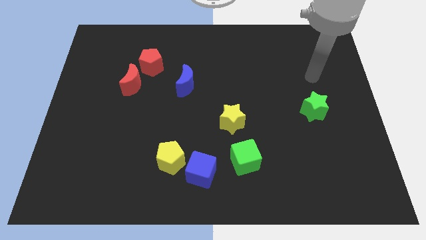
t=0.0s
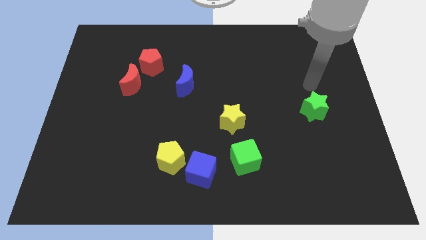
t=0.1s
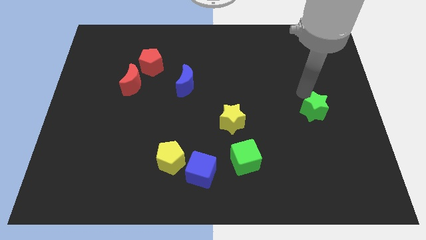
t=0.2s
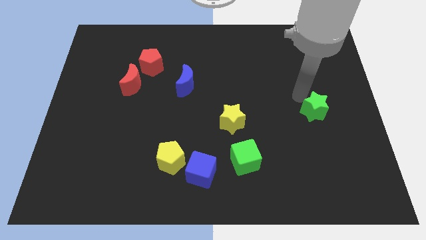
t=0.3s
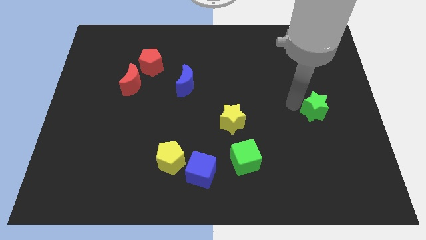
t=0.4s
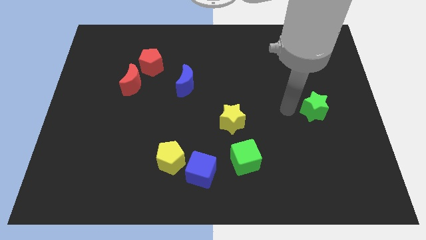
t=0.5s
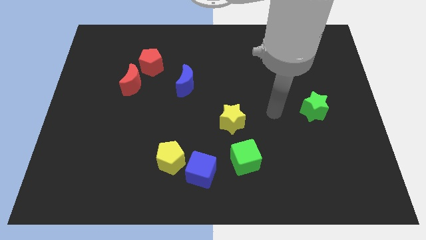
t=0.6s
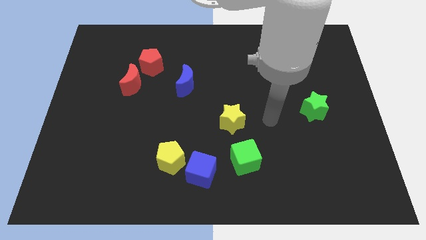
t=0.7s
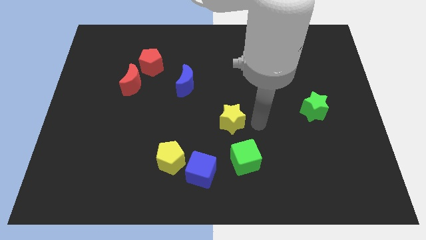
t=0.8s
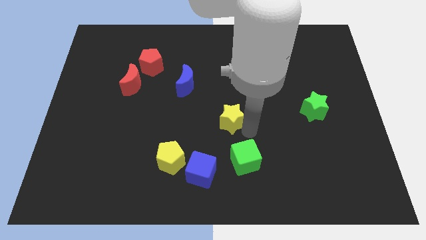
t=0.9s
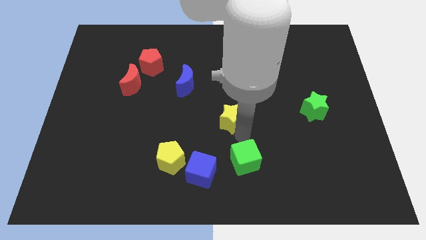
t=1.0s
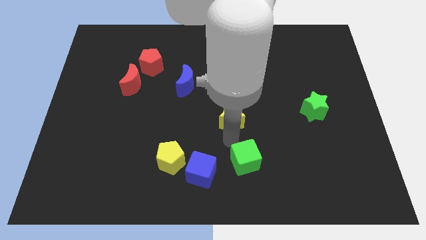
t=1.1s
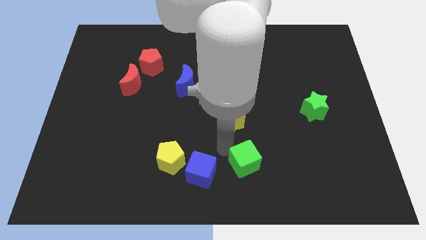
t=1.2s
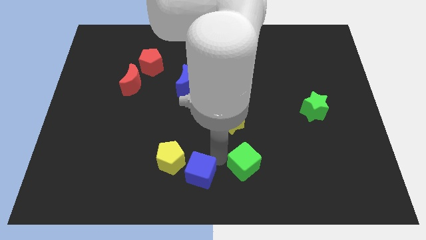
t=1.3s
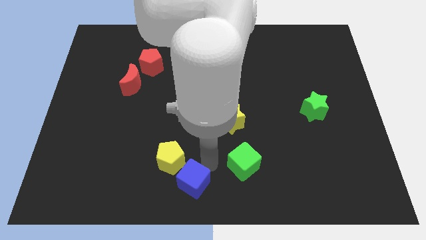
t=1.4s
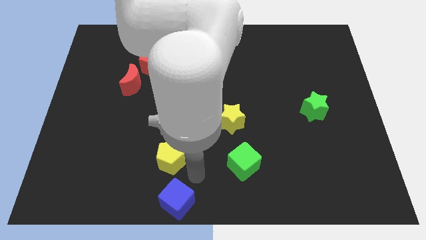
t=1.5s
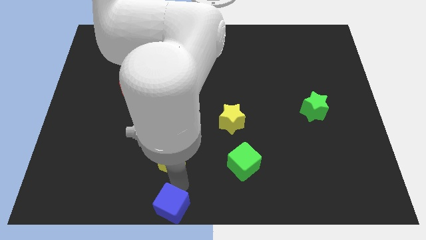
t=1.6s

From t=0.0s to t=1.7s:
separate the yellow pentagon from the blue cube

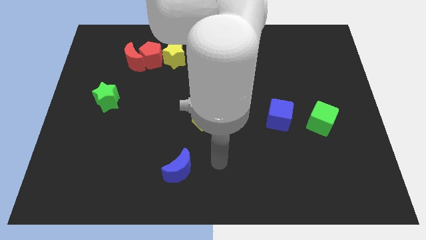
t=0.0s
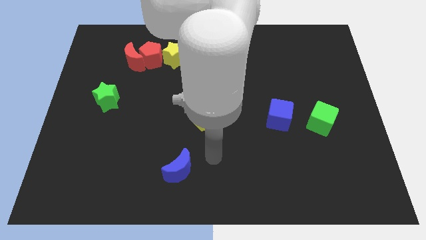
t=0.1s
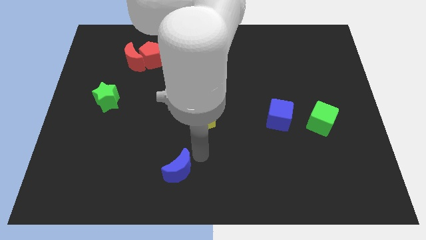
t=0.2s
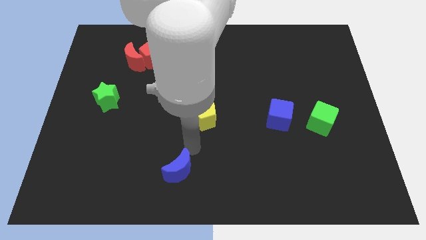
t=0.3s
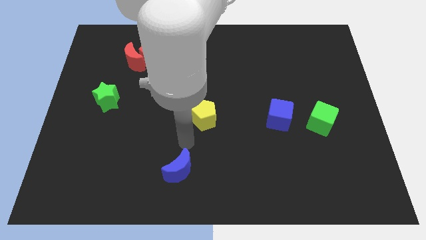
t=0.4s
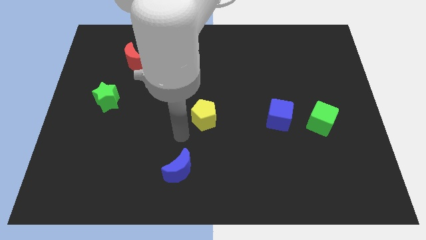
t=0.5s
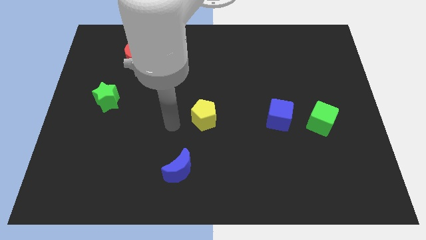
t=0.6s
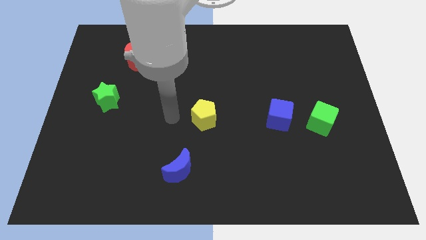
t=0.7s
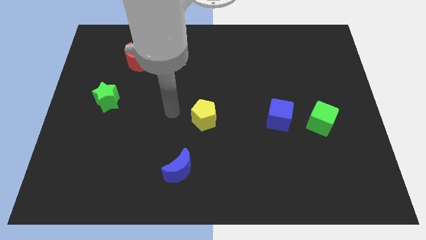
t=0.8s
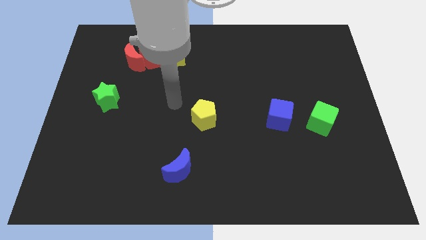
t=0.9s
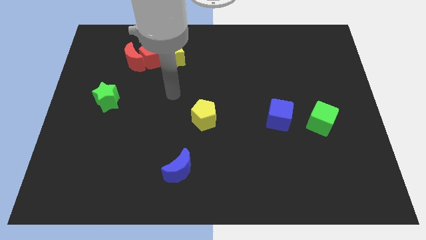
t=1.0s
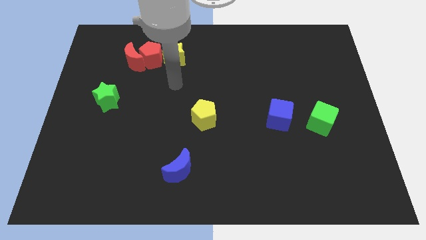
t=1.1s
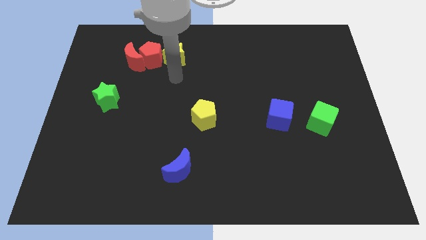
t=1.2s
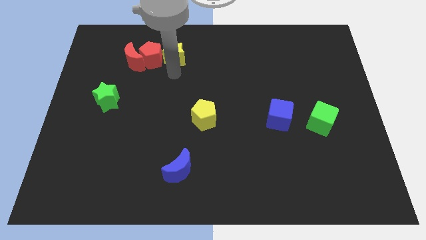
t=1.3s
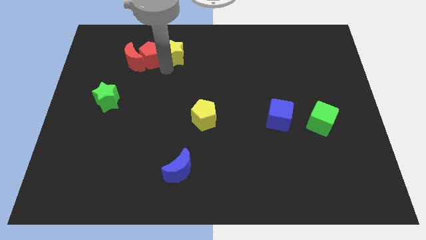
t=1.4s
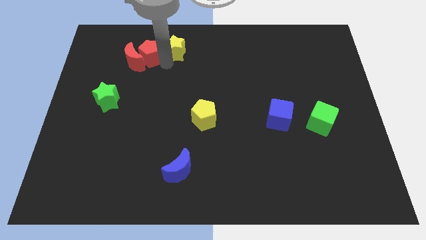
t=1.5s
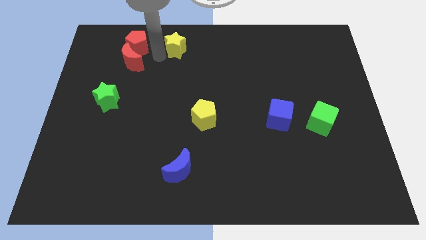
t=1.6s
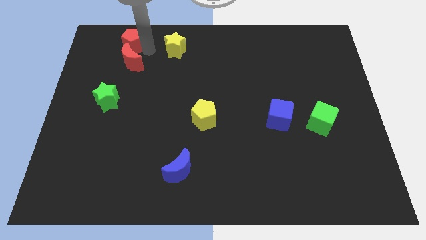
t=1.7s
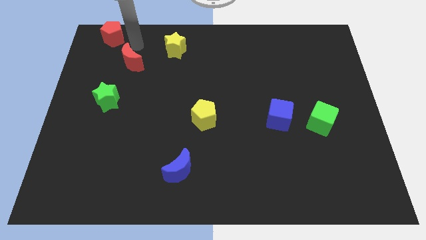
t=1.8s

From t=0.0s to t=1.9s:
move the red moon away from the red pentagon

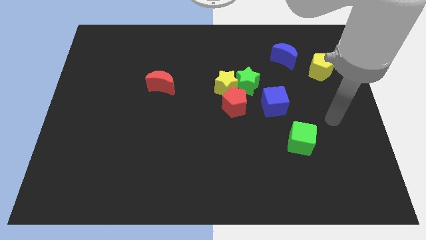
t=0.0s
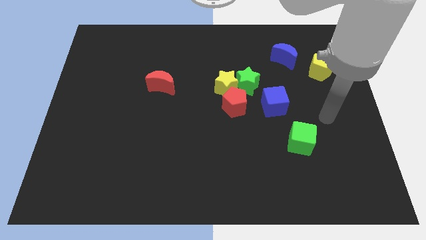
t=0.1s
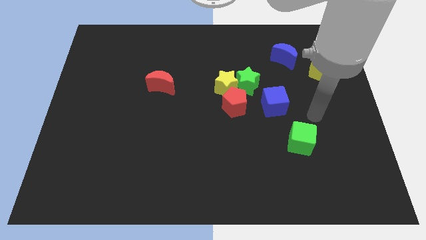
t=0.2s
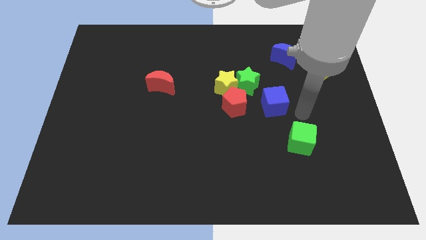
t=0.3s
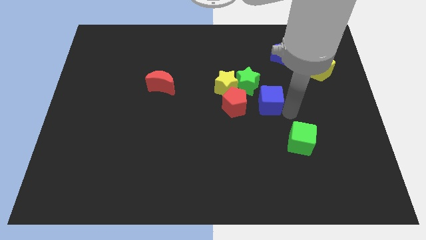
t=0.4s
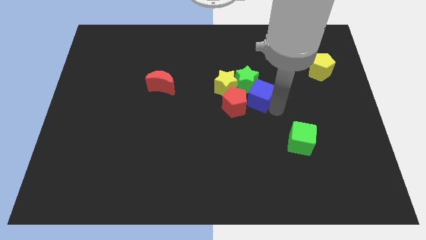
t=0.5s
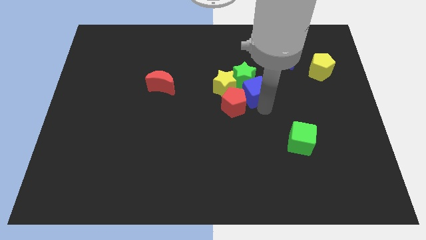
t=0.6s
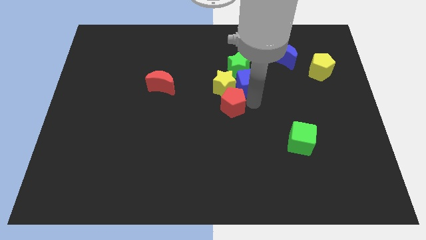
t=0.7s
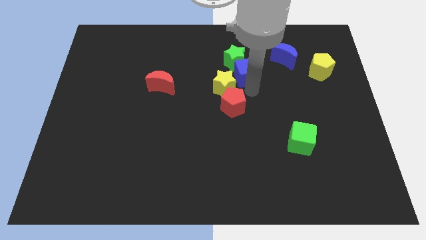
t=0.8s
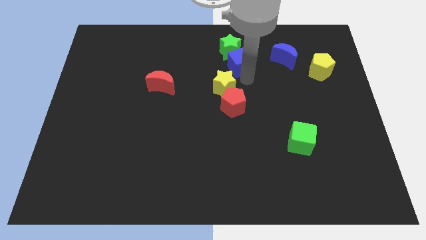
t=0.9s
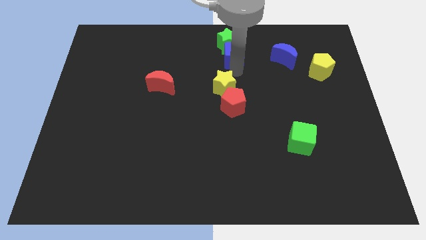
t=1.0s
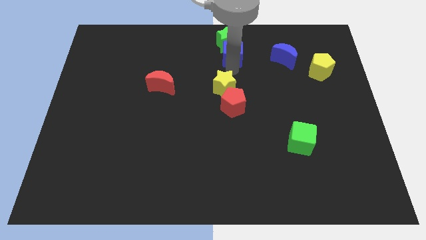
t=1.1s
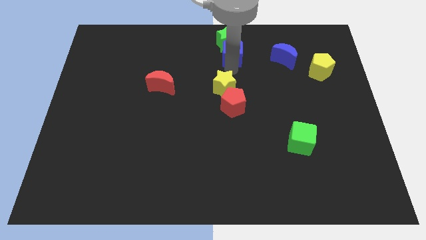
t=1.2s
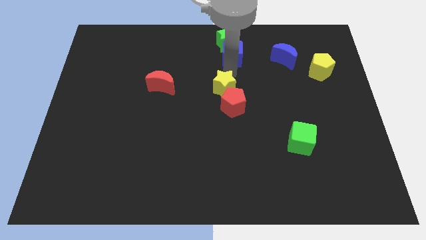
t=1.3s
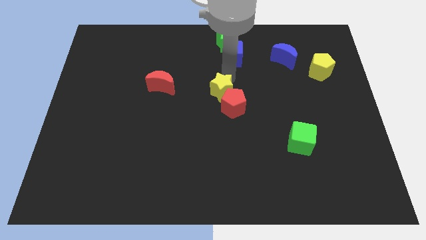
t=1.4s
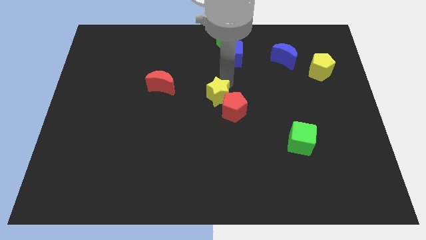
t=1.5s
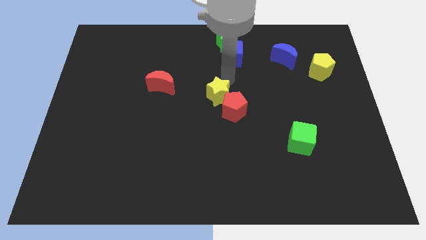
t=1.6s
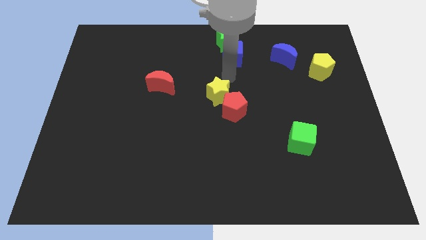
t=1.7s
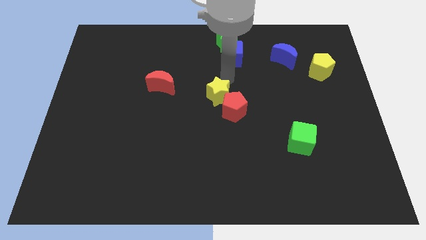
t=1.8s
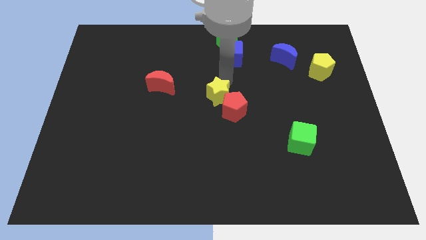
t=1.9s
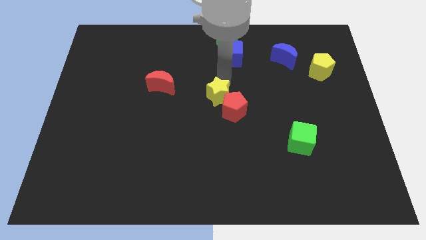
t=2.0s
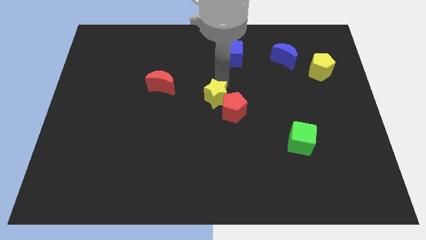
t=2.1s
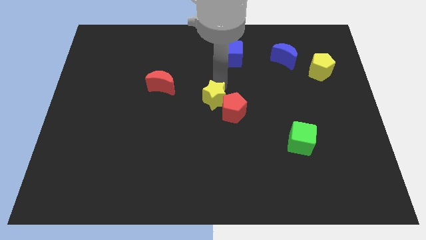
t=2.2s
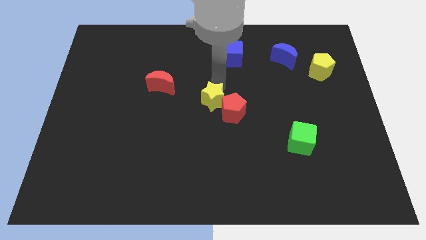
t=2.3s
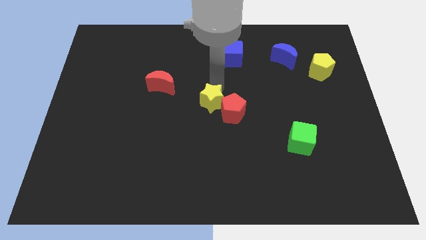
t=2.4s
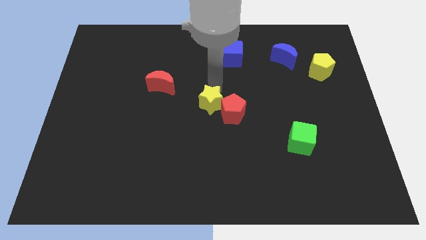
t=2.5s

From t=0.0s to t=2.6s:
separate the yellow star from the green star and red pentagon

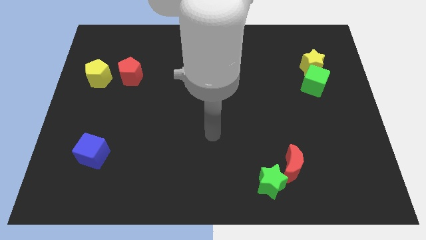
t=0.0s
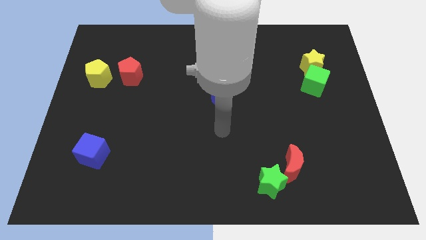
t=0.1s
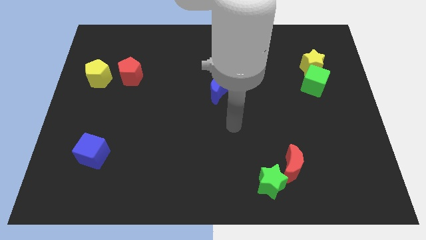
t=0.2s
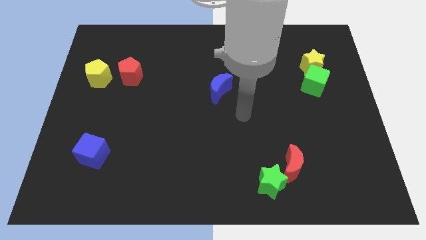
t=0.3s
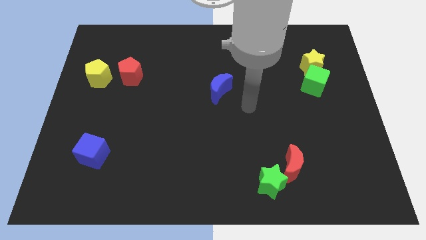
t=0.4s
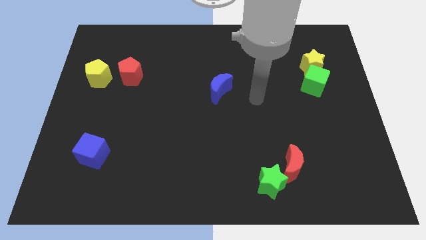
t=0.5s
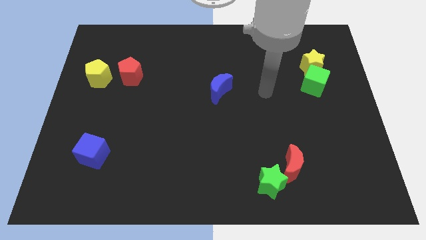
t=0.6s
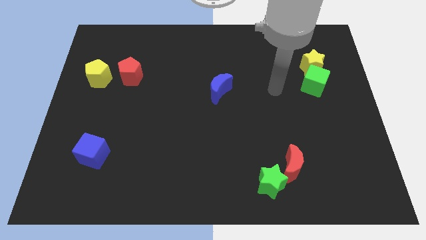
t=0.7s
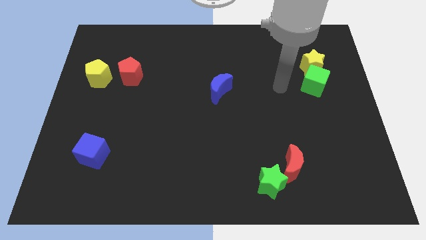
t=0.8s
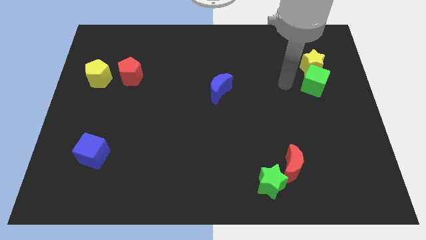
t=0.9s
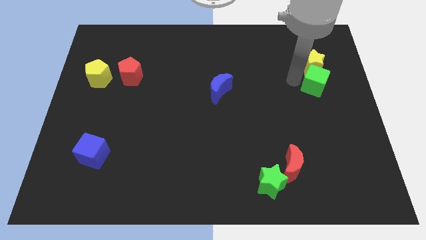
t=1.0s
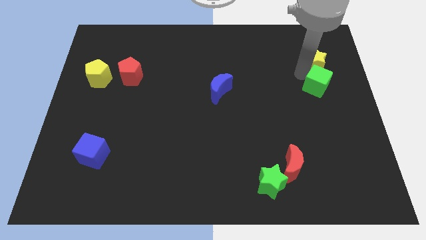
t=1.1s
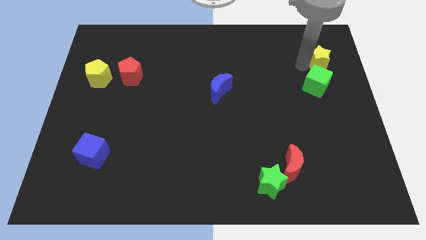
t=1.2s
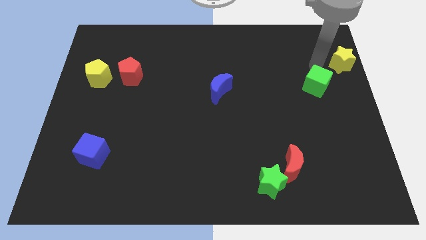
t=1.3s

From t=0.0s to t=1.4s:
move the green cube away from the yellow star

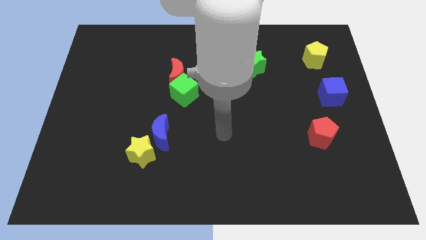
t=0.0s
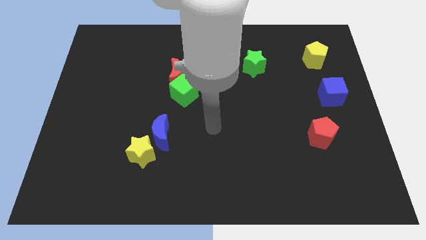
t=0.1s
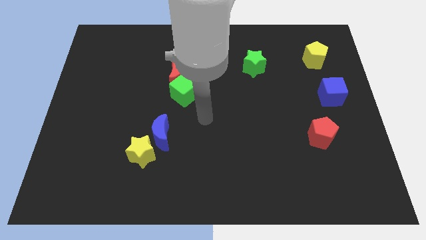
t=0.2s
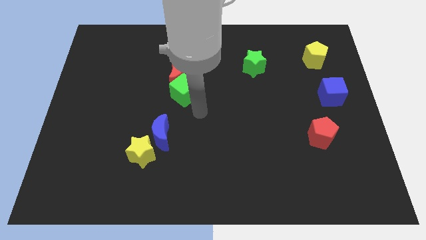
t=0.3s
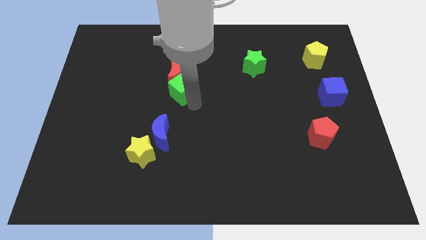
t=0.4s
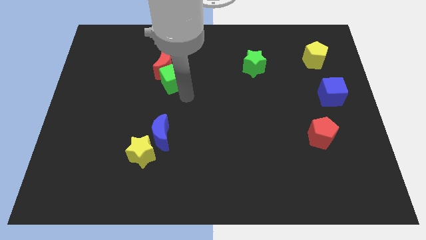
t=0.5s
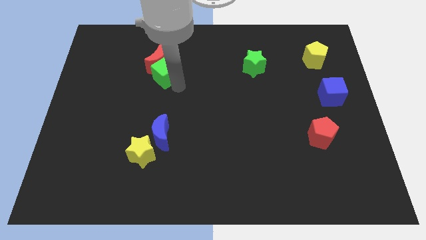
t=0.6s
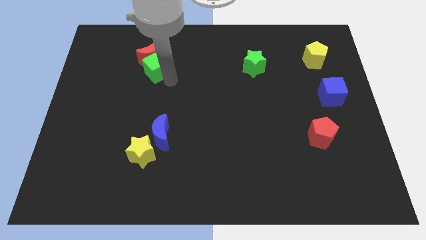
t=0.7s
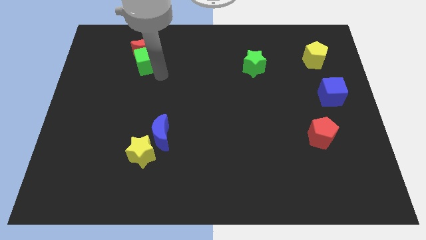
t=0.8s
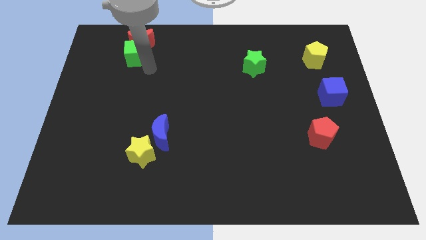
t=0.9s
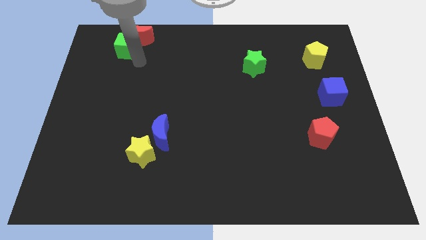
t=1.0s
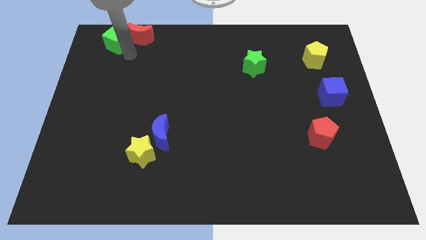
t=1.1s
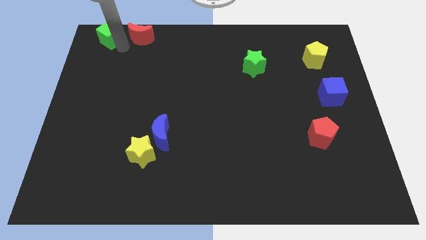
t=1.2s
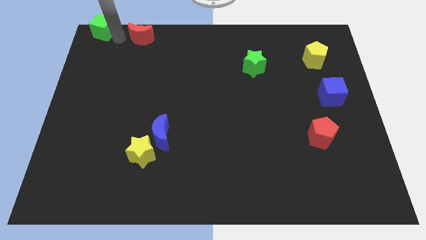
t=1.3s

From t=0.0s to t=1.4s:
separate the red moon from the green cube

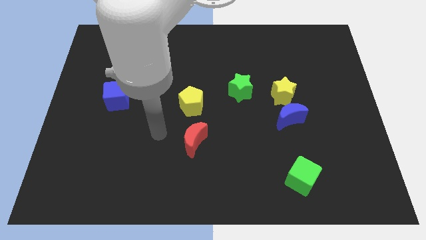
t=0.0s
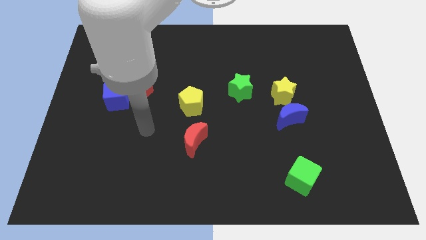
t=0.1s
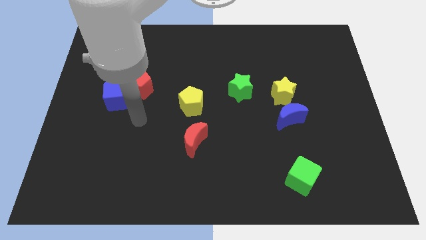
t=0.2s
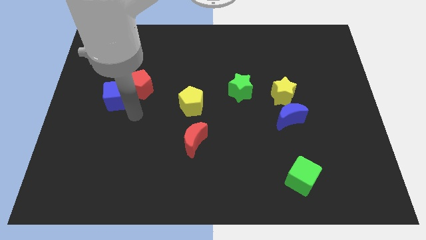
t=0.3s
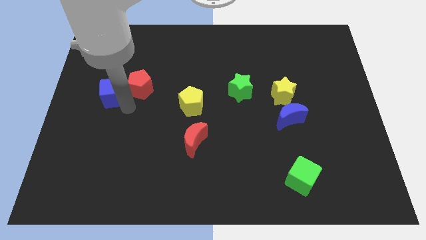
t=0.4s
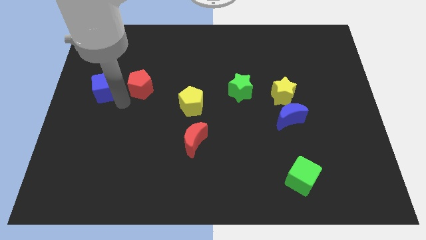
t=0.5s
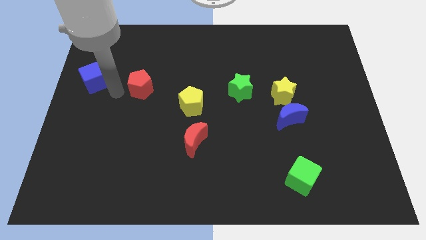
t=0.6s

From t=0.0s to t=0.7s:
separate the red pentagon from the blue cube
